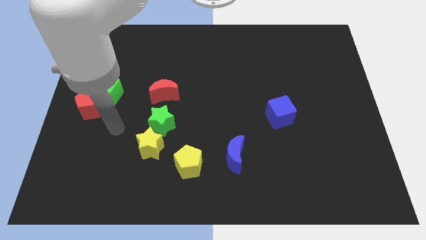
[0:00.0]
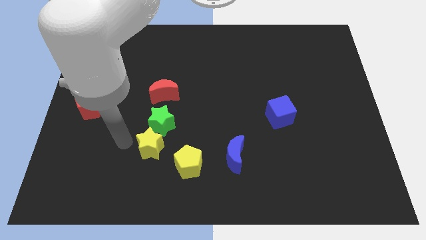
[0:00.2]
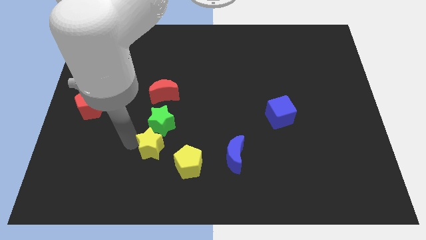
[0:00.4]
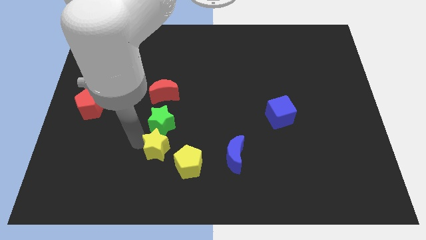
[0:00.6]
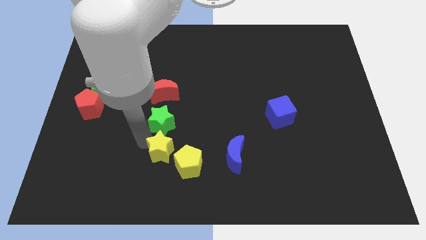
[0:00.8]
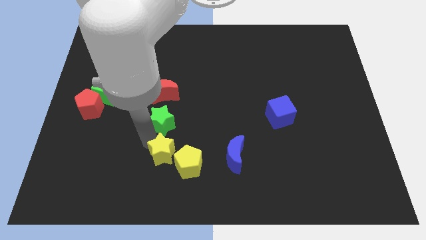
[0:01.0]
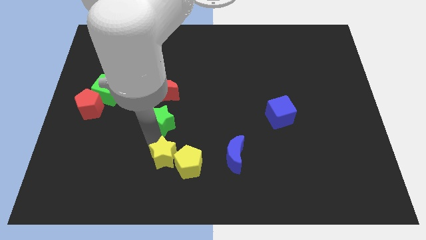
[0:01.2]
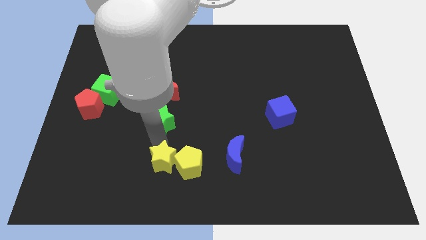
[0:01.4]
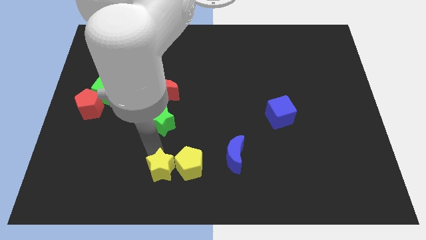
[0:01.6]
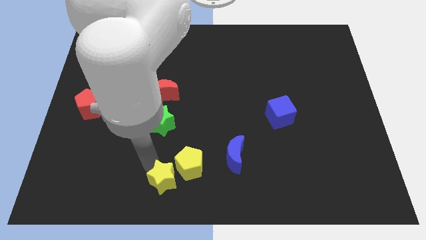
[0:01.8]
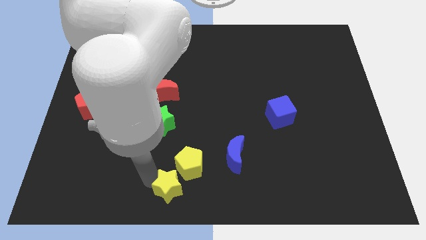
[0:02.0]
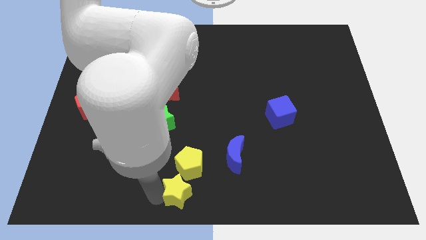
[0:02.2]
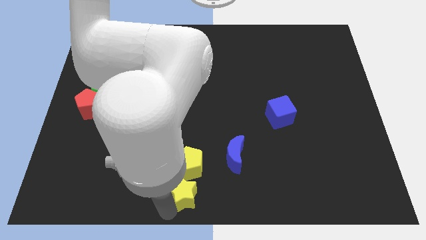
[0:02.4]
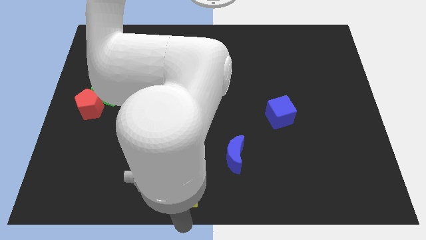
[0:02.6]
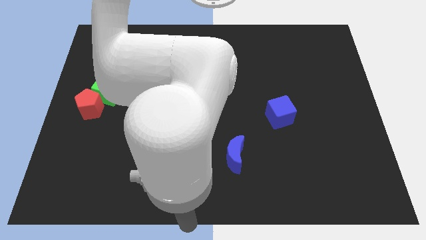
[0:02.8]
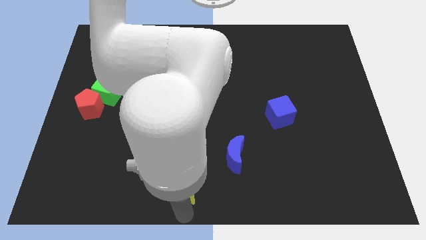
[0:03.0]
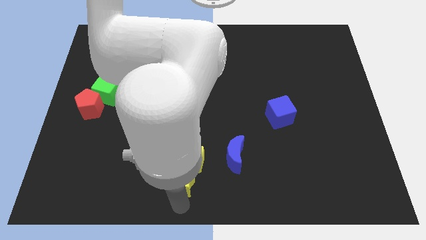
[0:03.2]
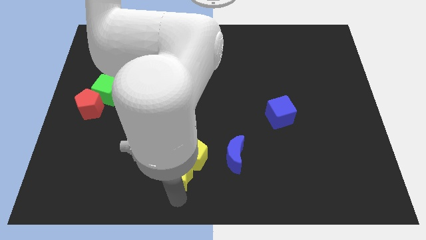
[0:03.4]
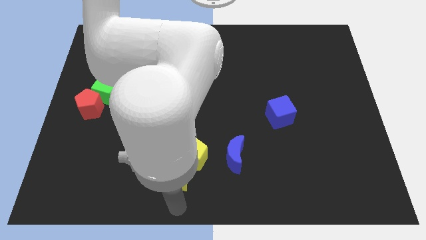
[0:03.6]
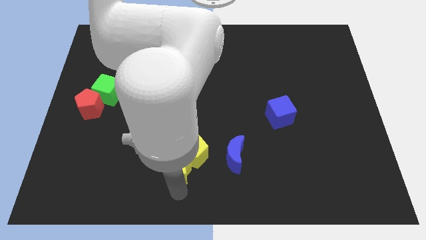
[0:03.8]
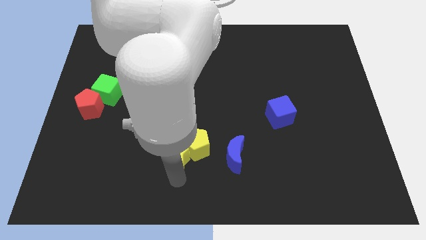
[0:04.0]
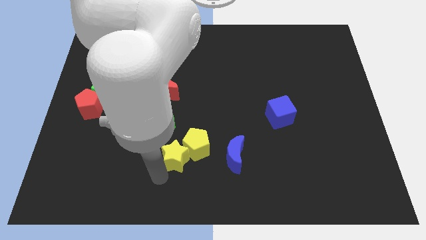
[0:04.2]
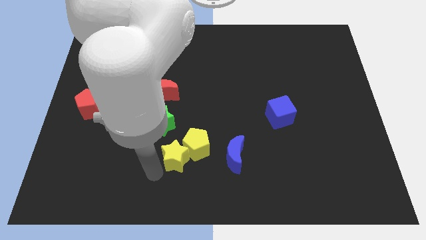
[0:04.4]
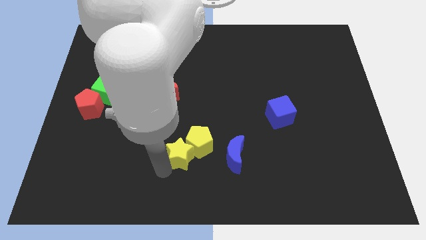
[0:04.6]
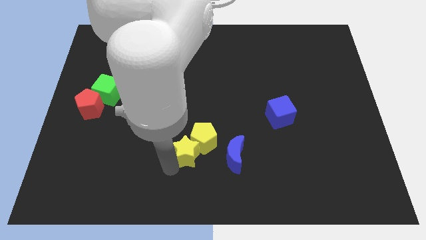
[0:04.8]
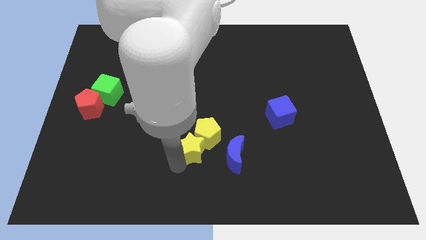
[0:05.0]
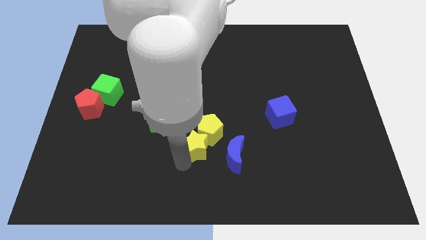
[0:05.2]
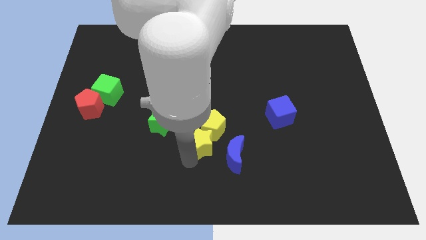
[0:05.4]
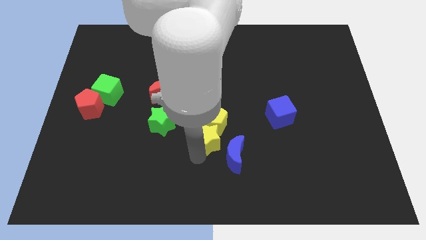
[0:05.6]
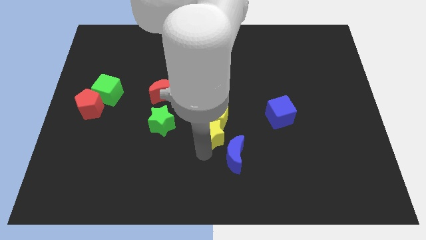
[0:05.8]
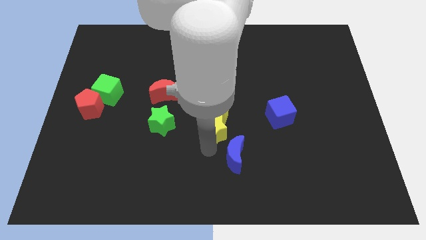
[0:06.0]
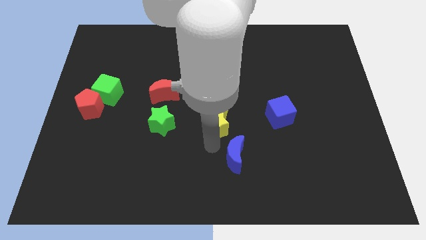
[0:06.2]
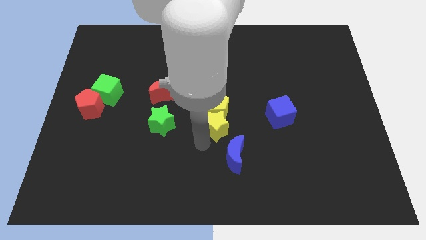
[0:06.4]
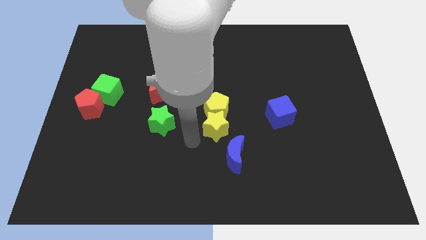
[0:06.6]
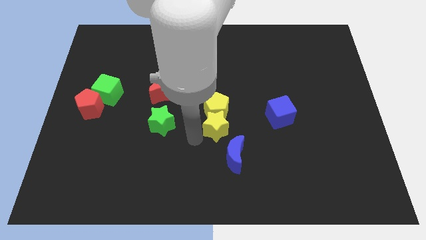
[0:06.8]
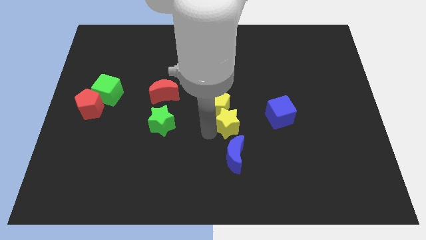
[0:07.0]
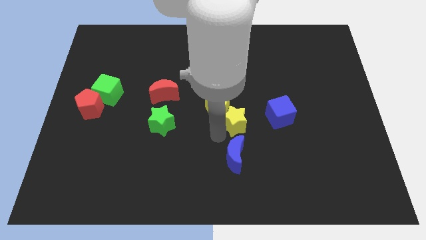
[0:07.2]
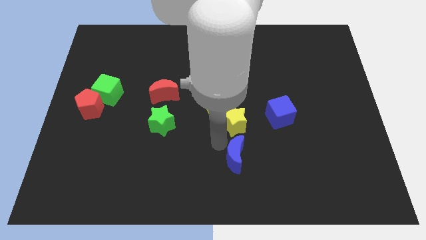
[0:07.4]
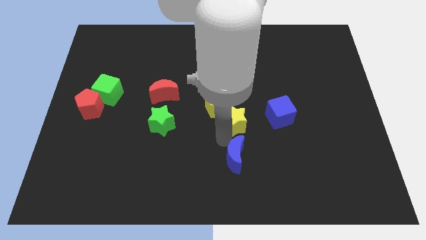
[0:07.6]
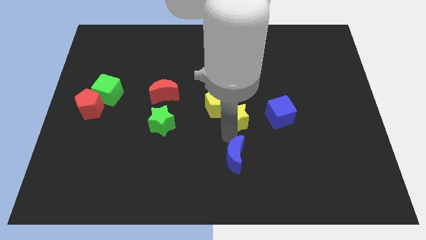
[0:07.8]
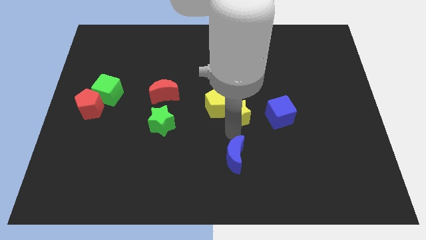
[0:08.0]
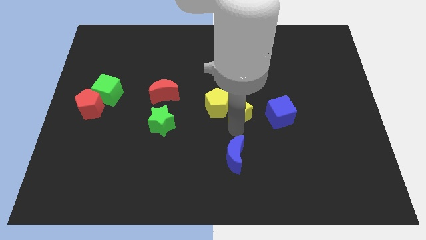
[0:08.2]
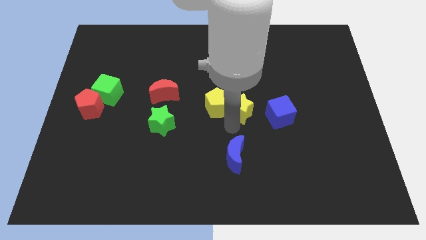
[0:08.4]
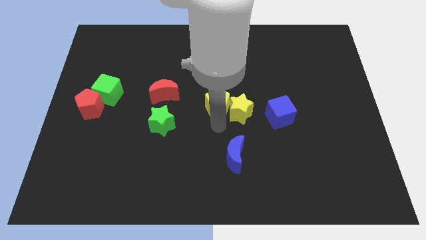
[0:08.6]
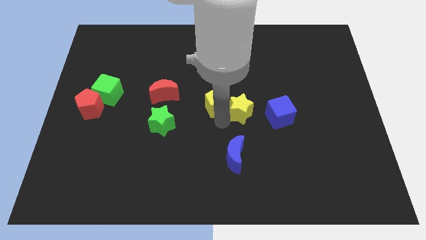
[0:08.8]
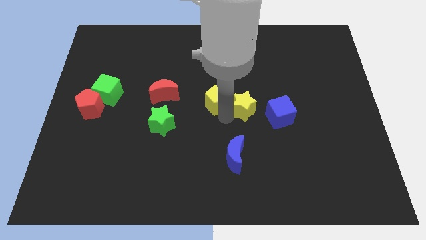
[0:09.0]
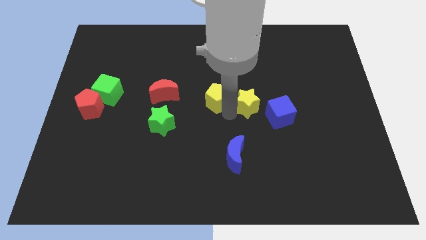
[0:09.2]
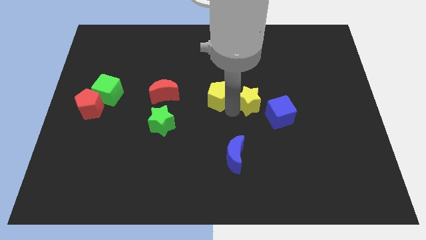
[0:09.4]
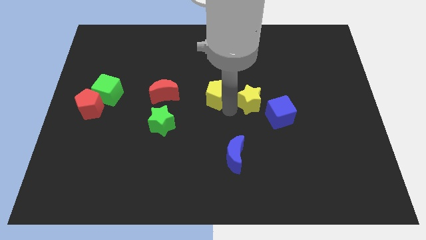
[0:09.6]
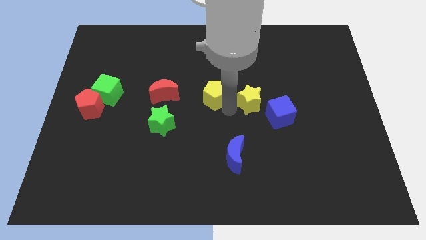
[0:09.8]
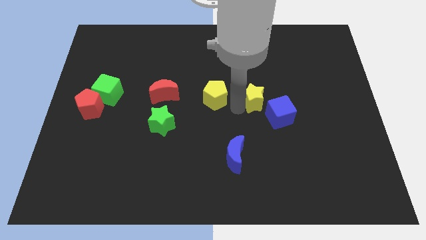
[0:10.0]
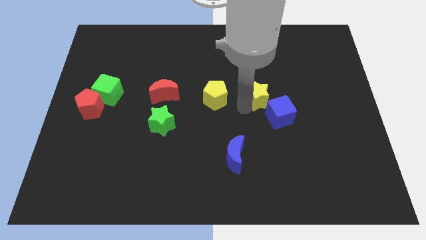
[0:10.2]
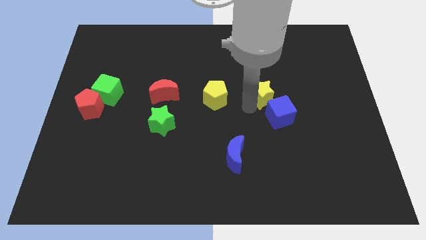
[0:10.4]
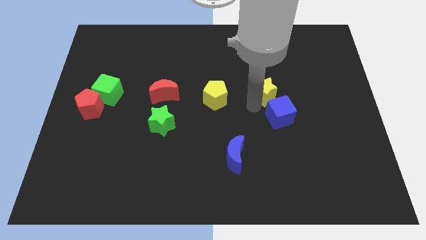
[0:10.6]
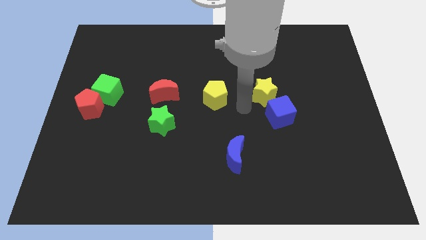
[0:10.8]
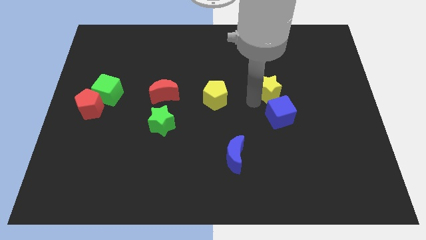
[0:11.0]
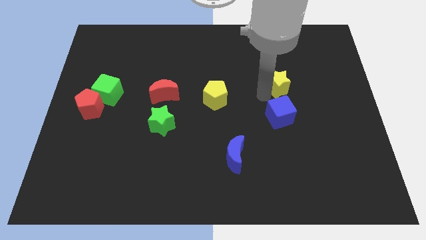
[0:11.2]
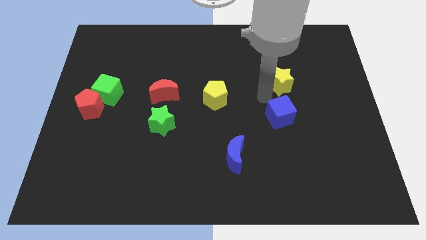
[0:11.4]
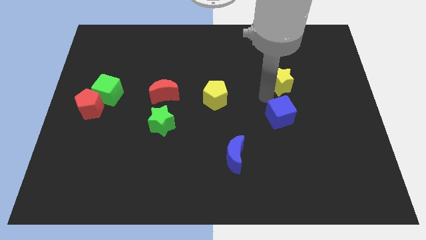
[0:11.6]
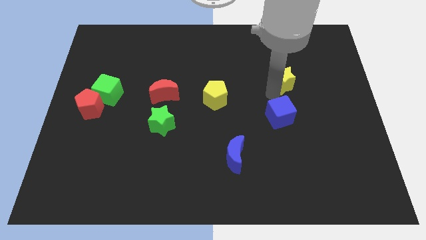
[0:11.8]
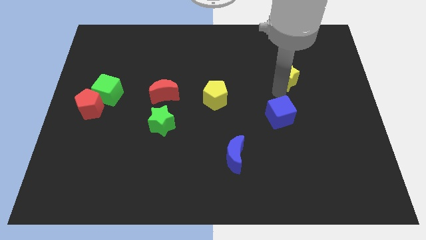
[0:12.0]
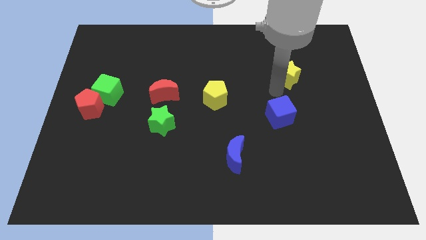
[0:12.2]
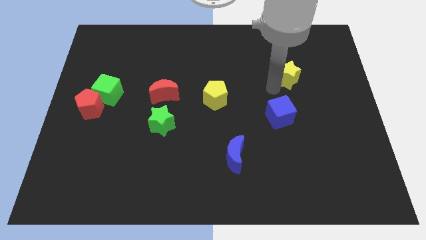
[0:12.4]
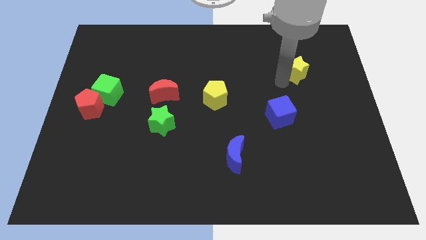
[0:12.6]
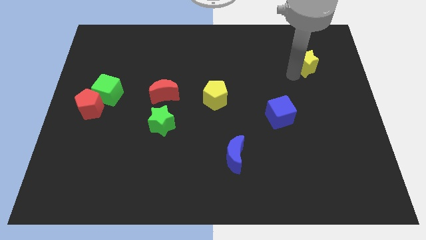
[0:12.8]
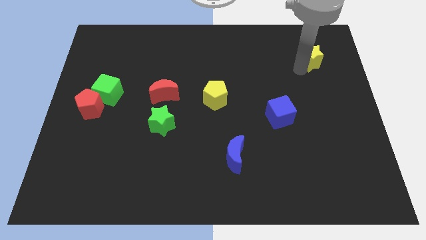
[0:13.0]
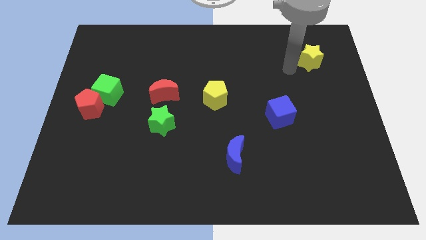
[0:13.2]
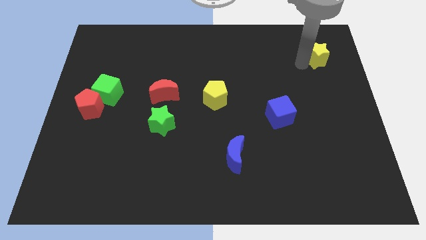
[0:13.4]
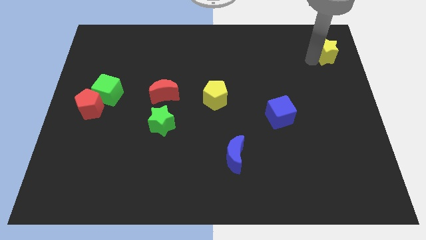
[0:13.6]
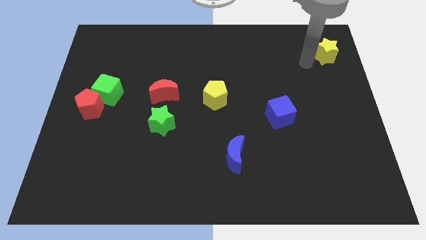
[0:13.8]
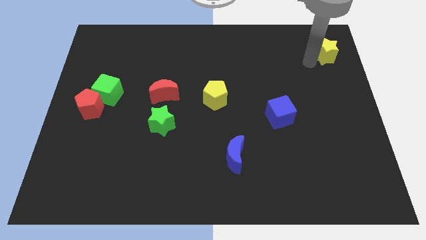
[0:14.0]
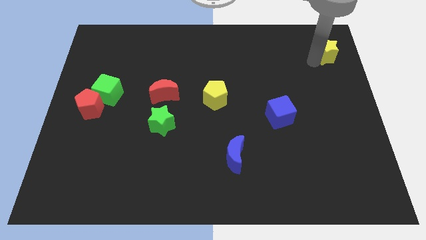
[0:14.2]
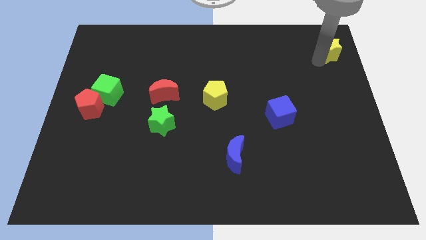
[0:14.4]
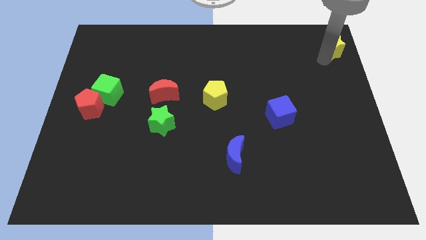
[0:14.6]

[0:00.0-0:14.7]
move the yellow star to the top right corner
